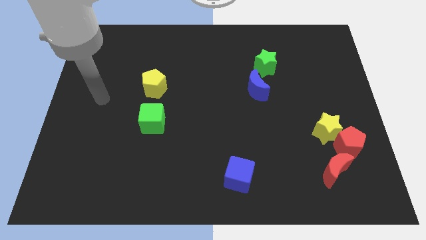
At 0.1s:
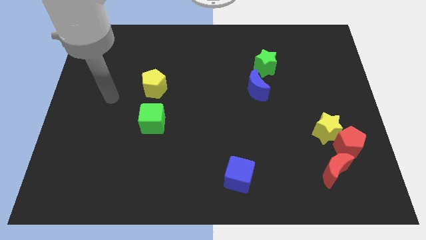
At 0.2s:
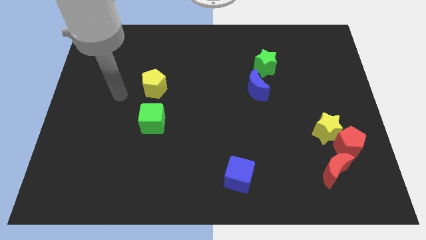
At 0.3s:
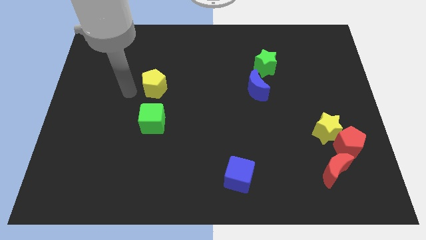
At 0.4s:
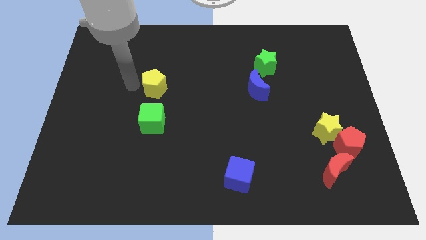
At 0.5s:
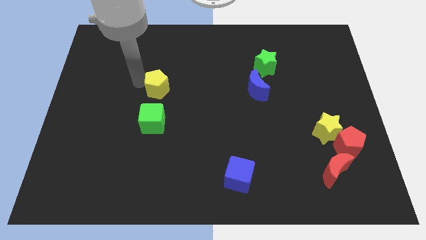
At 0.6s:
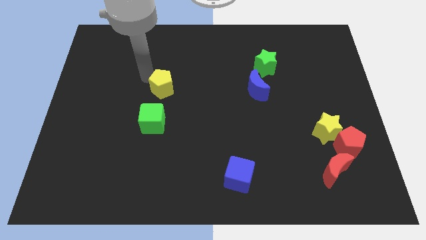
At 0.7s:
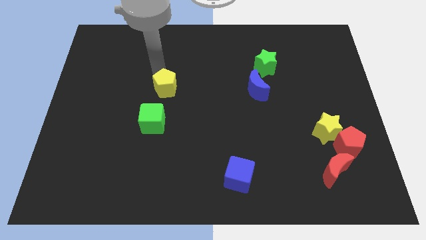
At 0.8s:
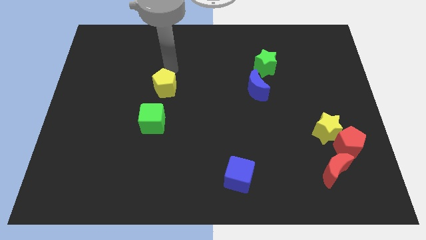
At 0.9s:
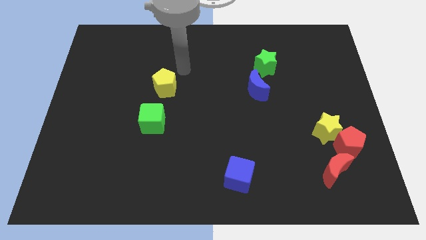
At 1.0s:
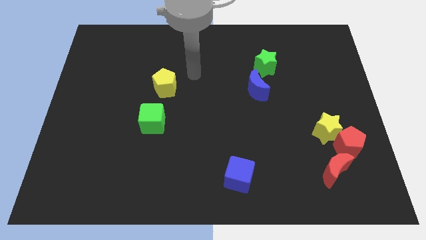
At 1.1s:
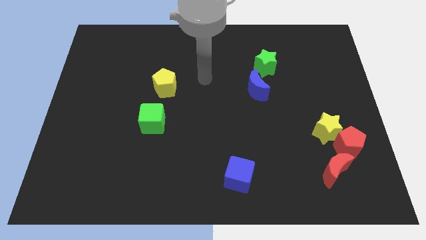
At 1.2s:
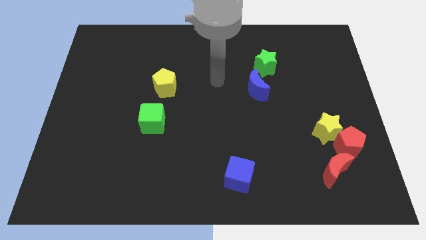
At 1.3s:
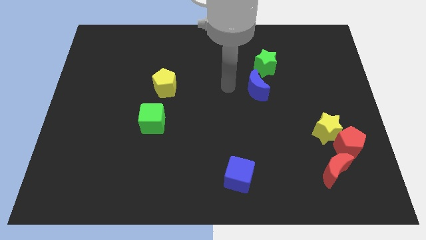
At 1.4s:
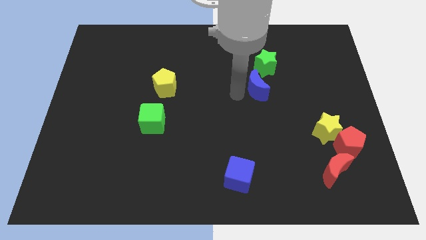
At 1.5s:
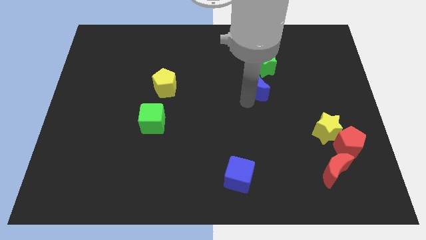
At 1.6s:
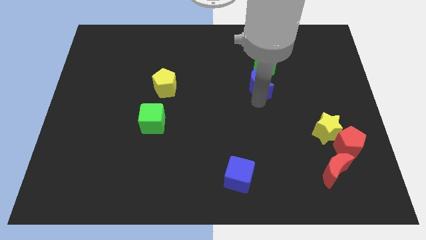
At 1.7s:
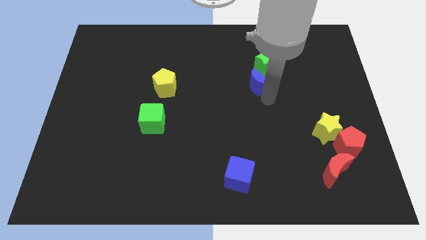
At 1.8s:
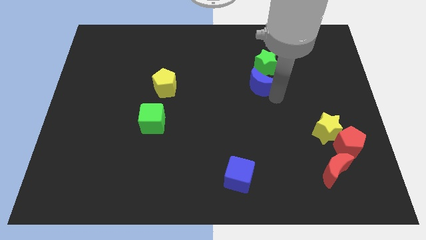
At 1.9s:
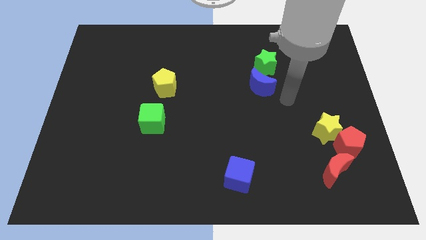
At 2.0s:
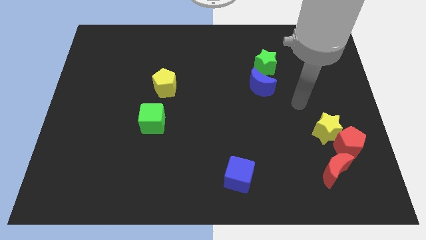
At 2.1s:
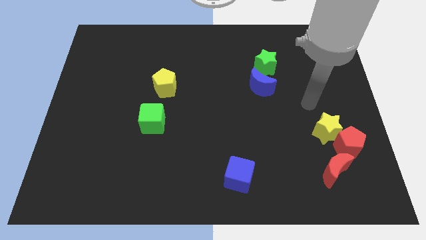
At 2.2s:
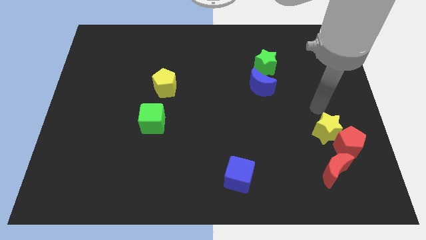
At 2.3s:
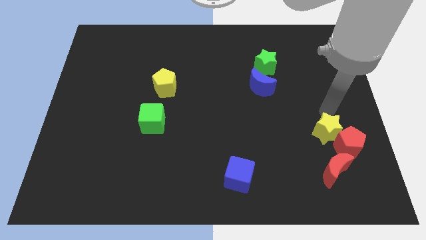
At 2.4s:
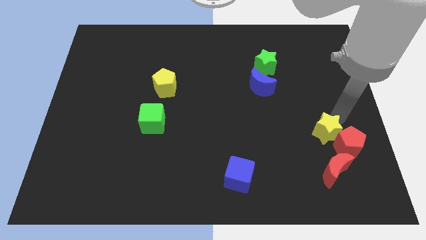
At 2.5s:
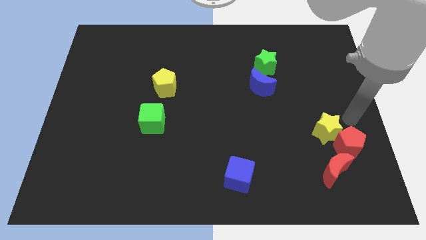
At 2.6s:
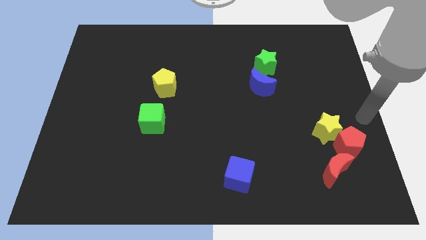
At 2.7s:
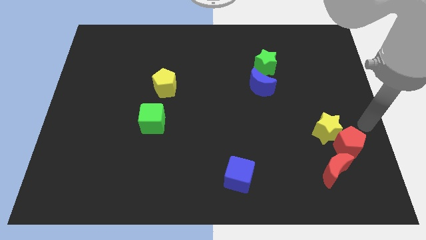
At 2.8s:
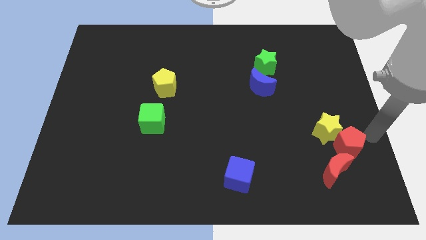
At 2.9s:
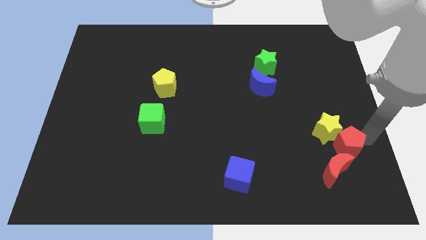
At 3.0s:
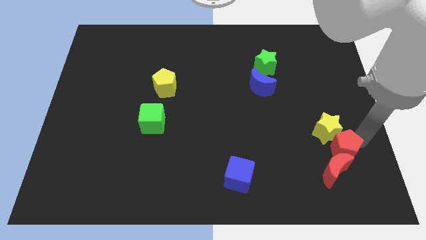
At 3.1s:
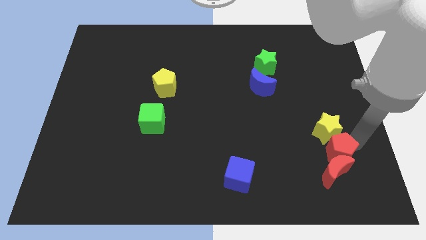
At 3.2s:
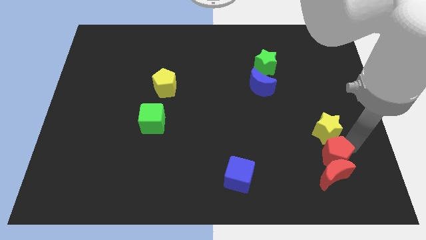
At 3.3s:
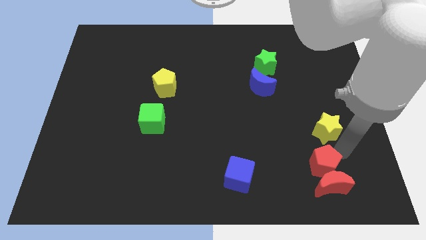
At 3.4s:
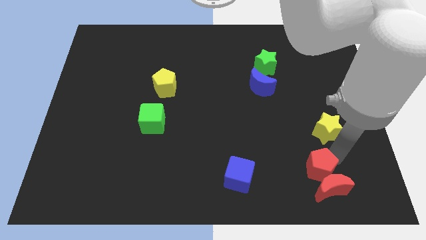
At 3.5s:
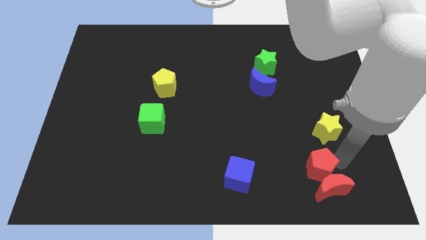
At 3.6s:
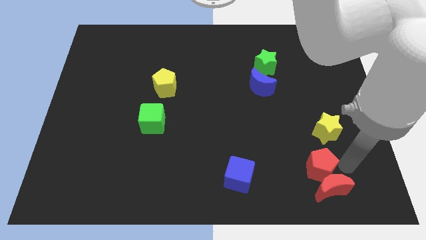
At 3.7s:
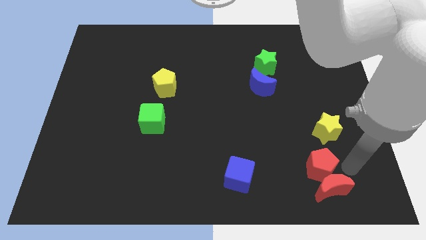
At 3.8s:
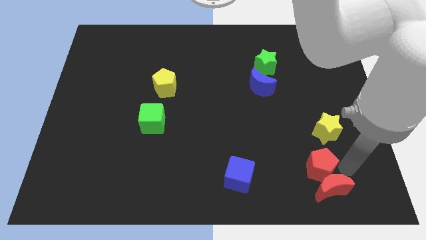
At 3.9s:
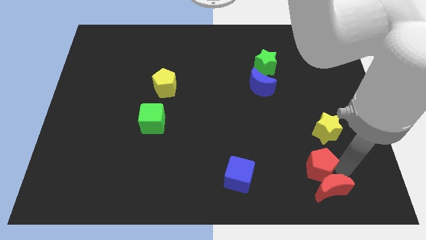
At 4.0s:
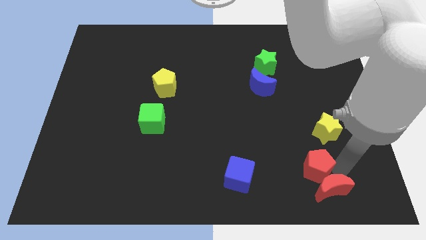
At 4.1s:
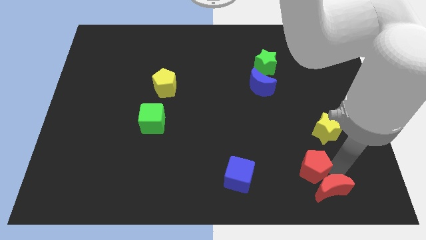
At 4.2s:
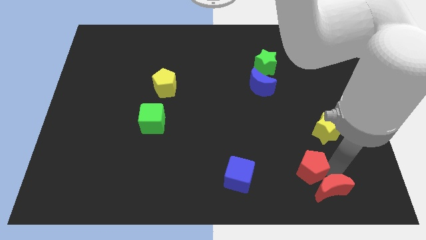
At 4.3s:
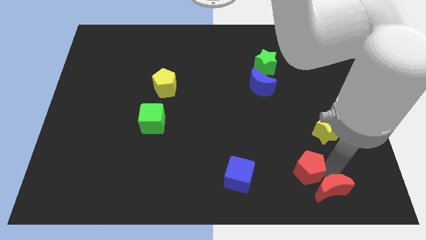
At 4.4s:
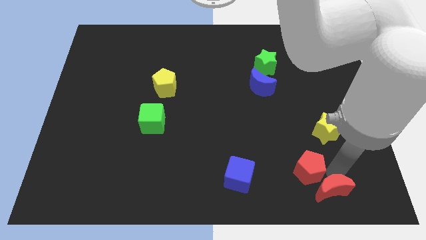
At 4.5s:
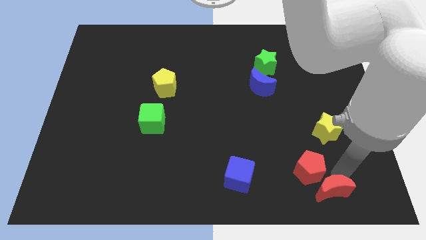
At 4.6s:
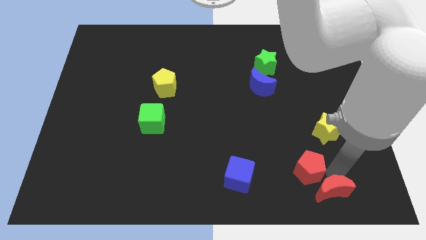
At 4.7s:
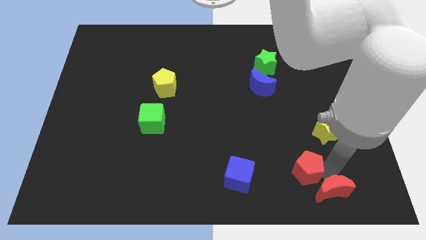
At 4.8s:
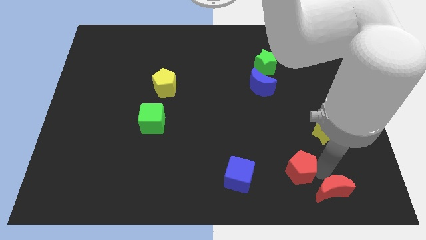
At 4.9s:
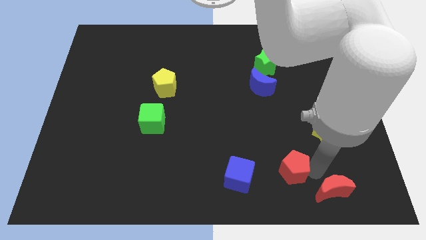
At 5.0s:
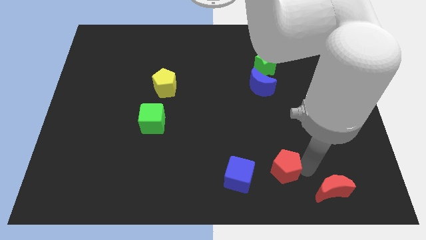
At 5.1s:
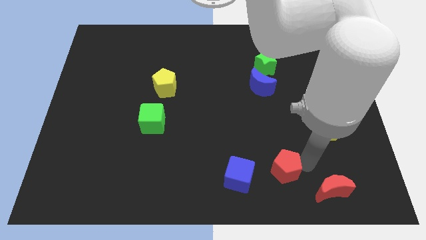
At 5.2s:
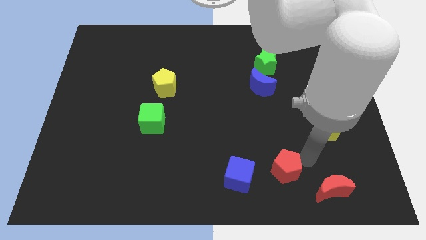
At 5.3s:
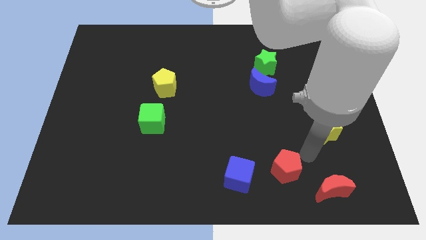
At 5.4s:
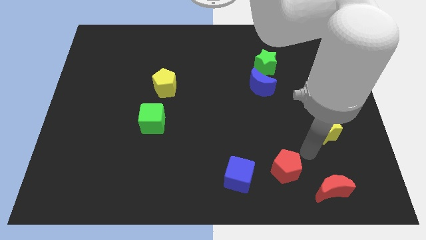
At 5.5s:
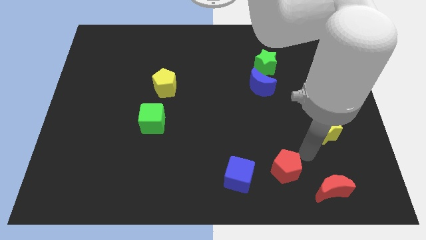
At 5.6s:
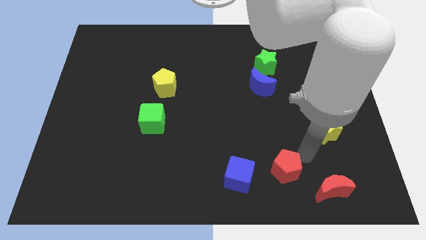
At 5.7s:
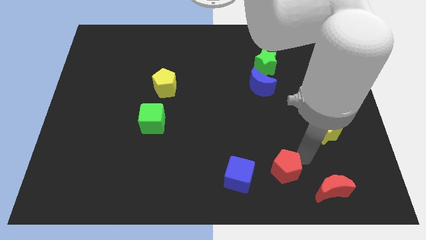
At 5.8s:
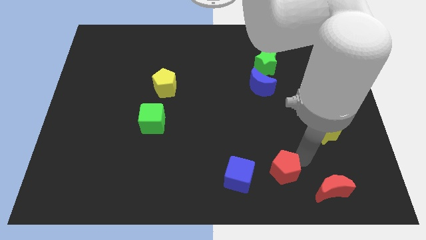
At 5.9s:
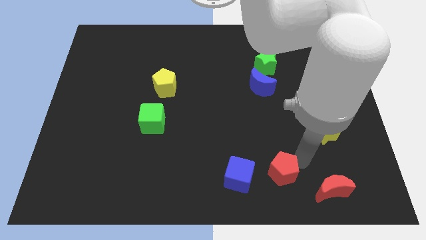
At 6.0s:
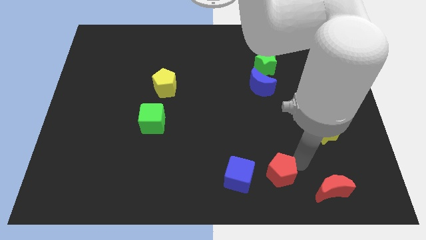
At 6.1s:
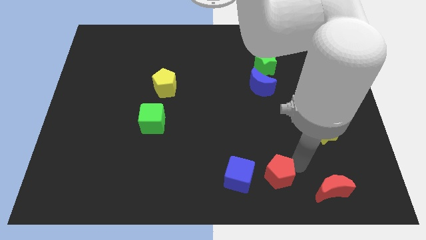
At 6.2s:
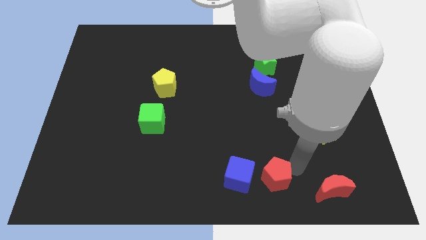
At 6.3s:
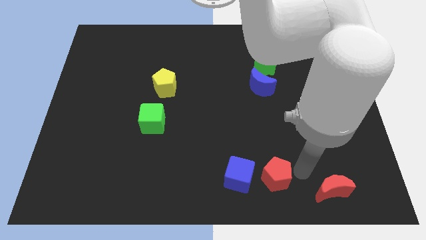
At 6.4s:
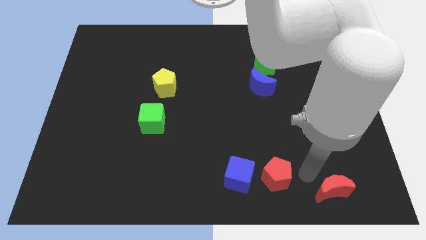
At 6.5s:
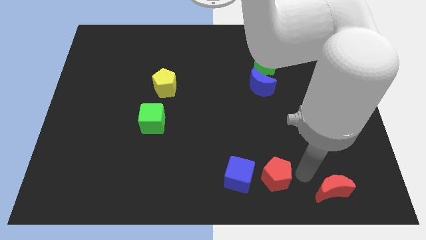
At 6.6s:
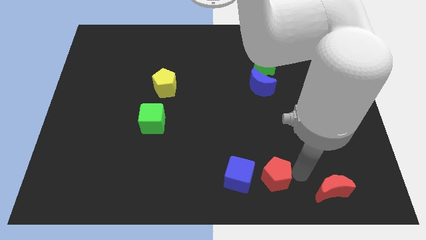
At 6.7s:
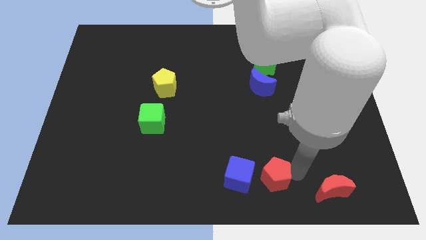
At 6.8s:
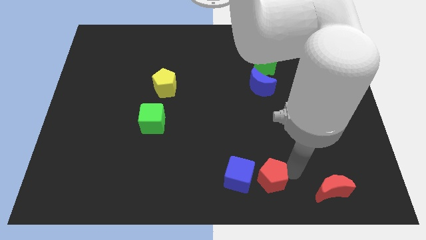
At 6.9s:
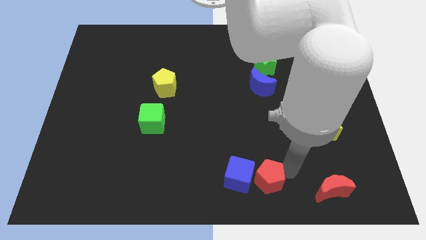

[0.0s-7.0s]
slide the red pentagon towards the blue cube
